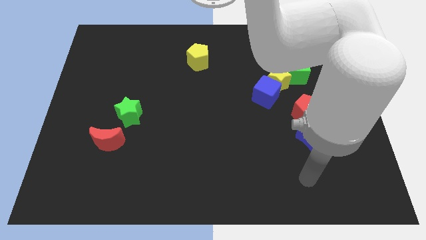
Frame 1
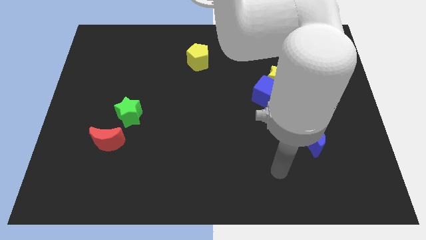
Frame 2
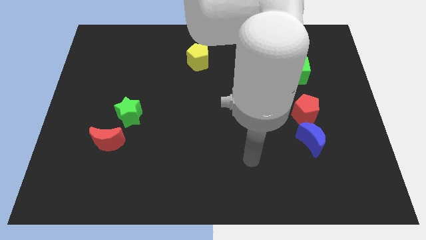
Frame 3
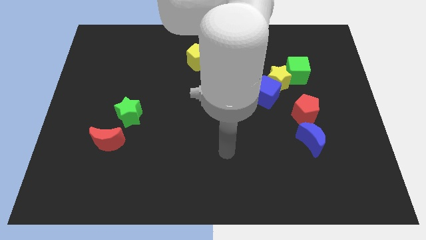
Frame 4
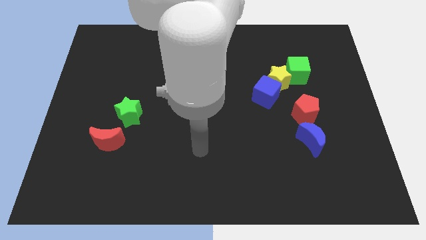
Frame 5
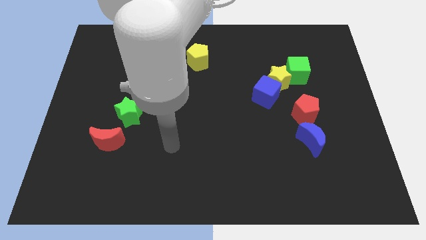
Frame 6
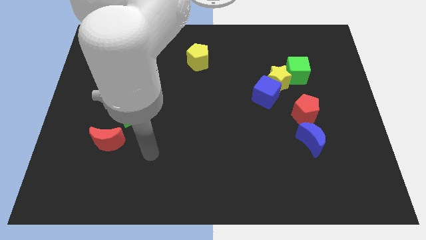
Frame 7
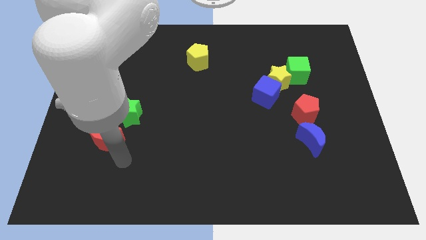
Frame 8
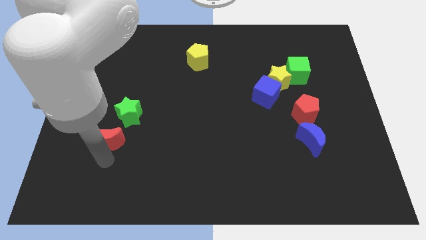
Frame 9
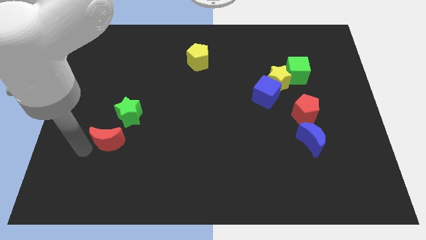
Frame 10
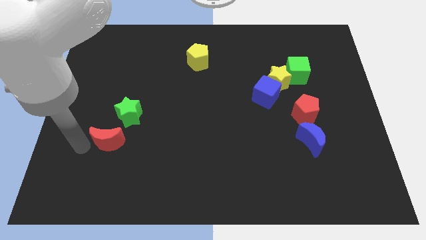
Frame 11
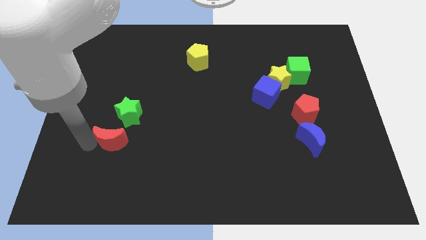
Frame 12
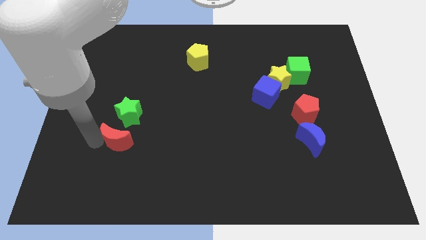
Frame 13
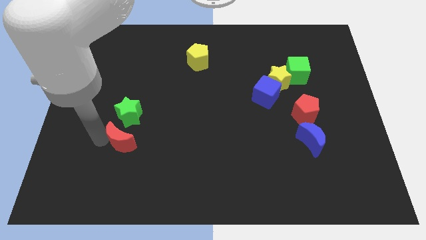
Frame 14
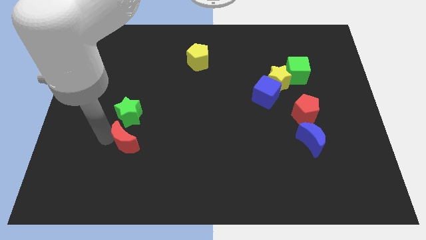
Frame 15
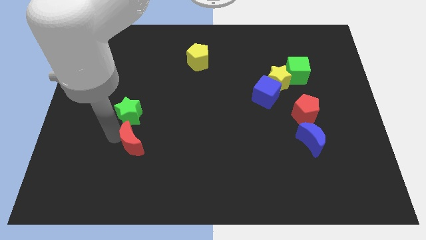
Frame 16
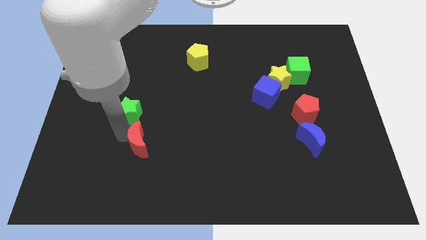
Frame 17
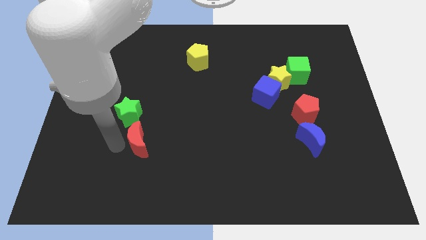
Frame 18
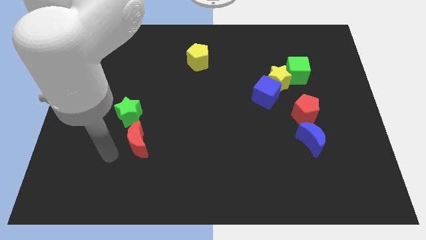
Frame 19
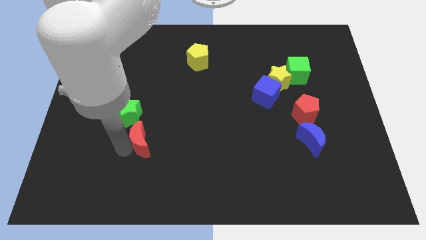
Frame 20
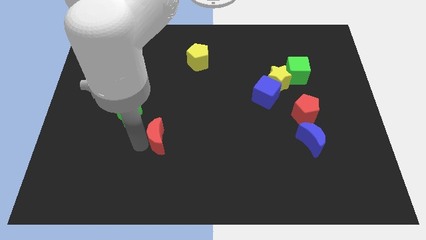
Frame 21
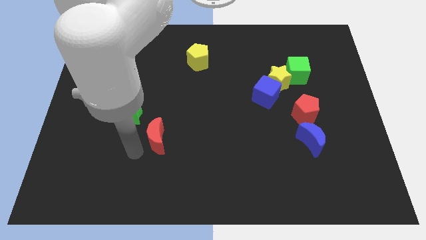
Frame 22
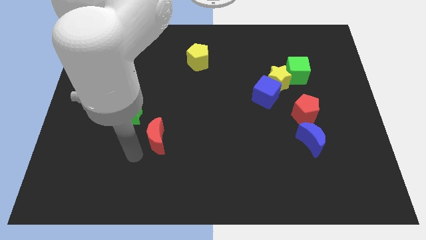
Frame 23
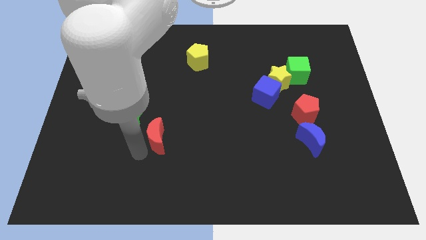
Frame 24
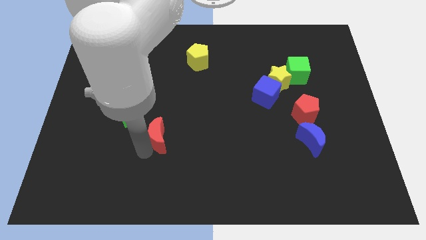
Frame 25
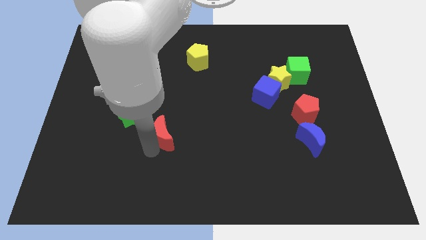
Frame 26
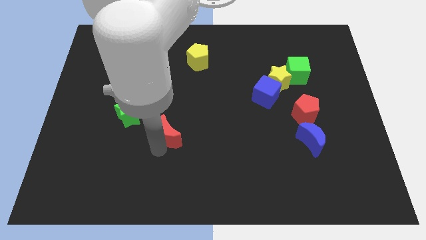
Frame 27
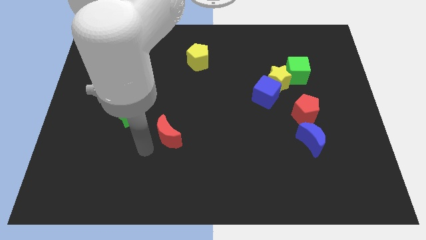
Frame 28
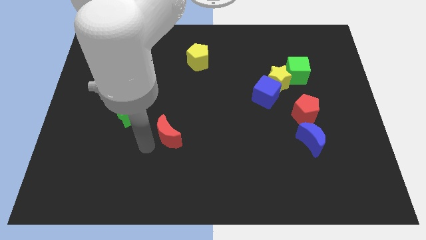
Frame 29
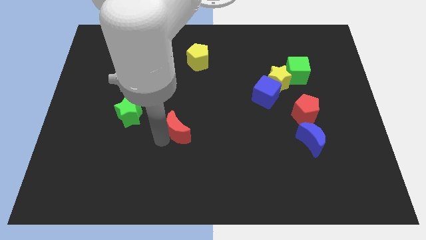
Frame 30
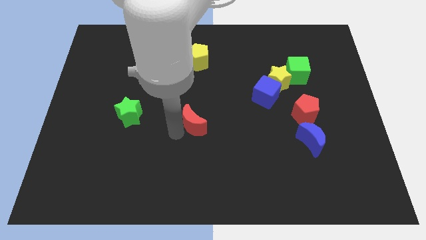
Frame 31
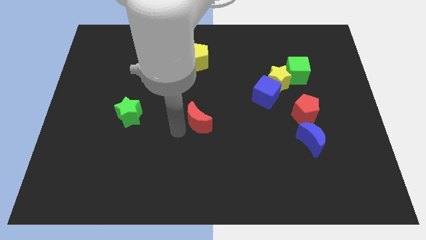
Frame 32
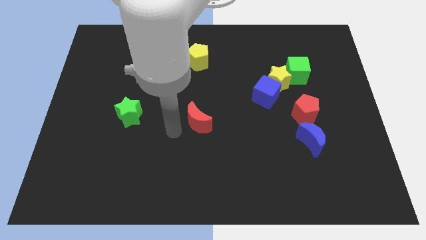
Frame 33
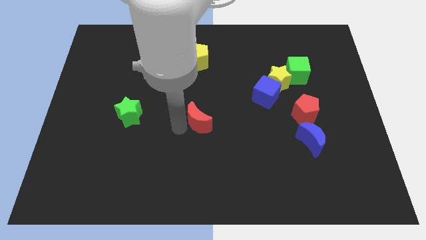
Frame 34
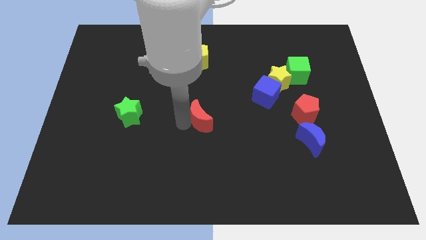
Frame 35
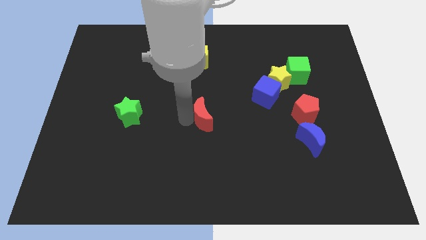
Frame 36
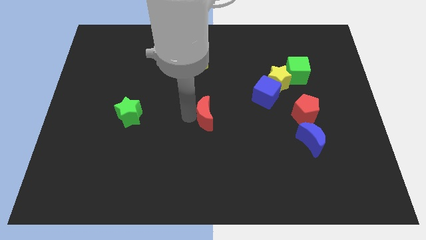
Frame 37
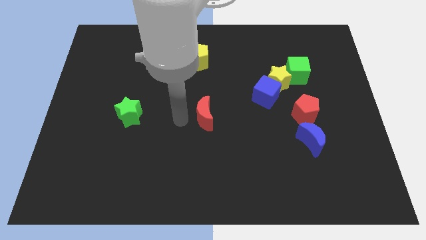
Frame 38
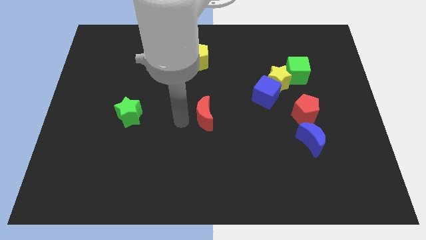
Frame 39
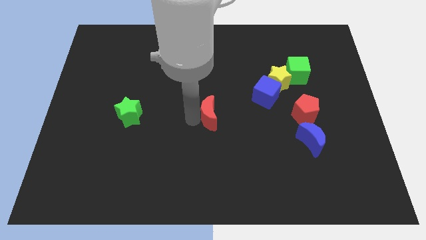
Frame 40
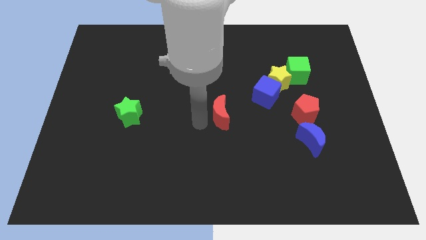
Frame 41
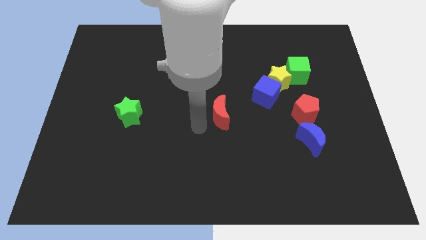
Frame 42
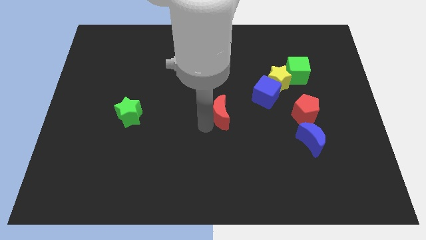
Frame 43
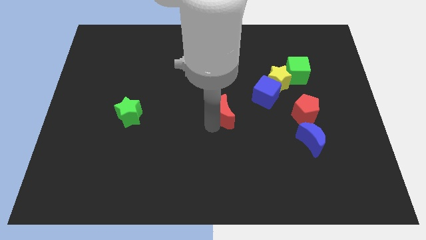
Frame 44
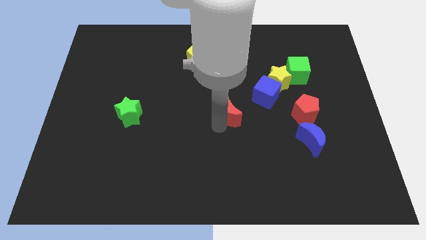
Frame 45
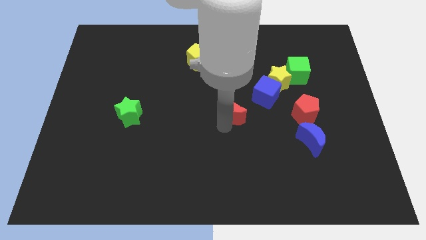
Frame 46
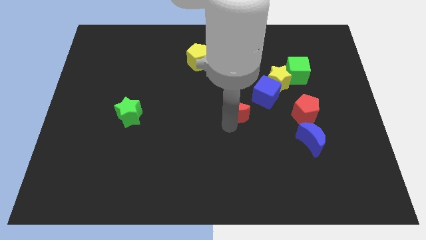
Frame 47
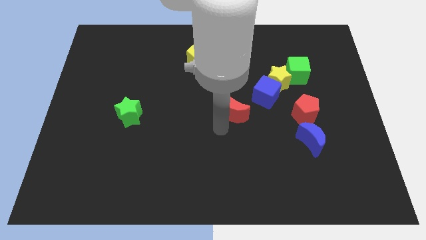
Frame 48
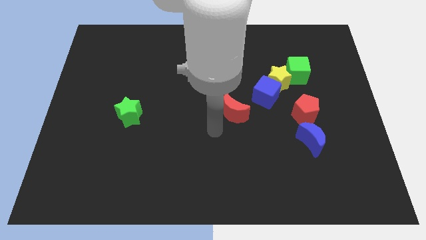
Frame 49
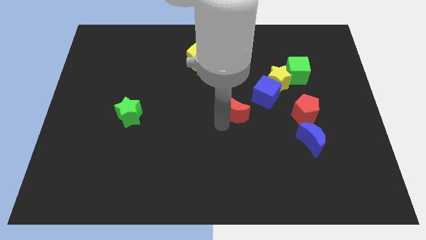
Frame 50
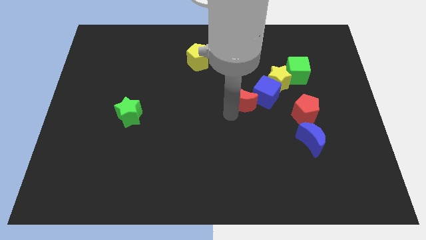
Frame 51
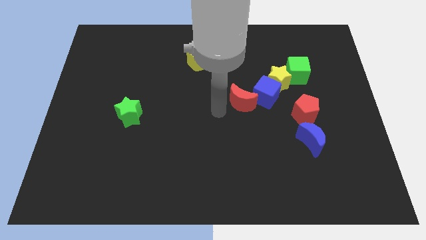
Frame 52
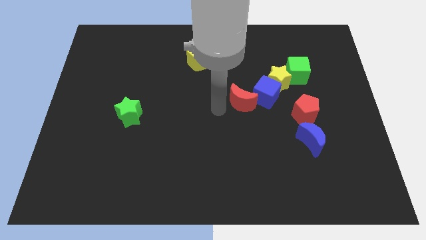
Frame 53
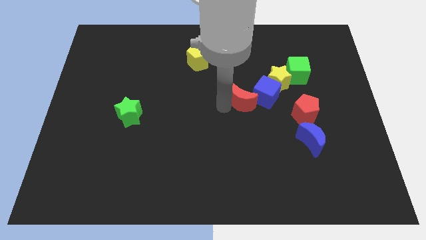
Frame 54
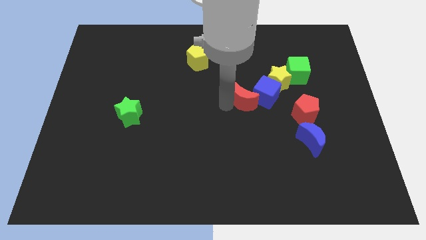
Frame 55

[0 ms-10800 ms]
put the red moon close to the blue cube

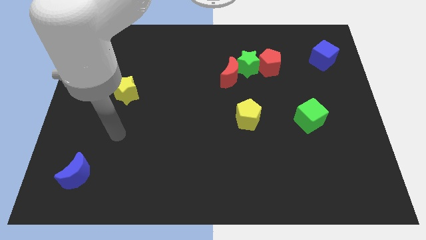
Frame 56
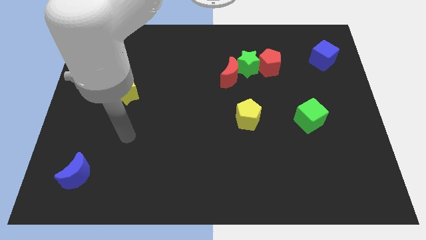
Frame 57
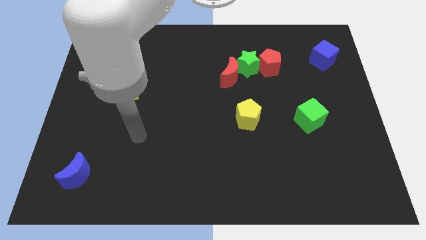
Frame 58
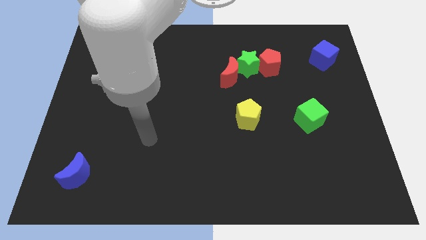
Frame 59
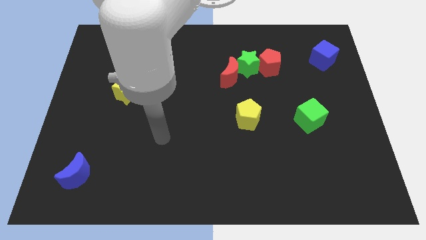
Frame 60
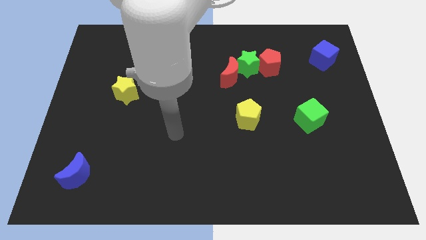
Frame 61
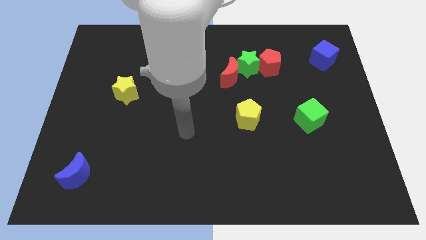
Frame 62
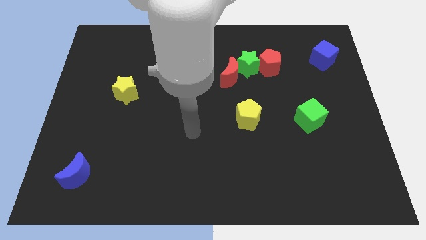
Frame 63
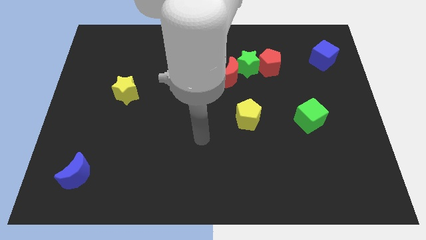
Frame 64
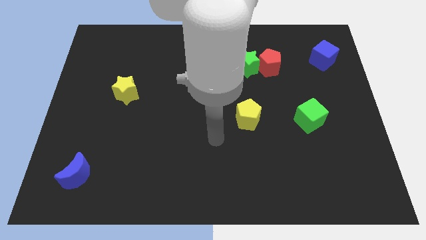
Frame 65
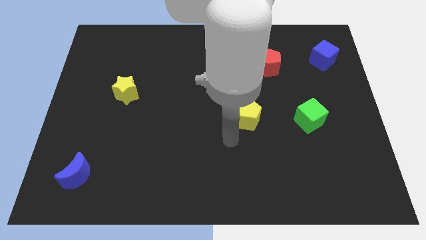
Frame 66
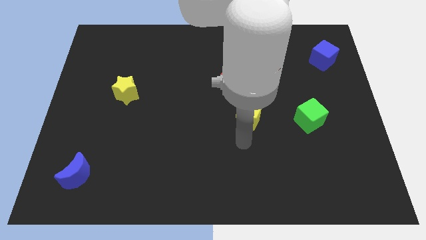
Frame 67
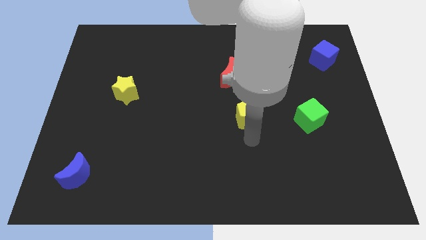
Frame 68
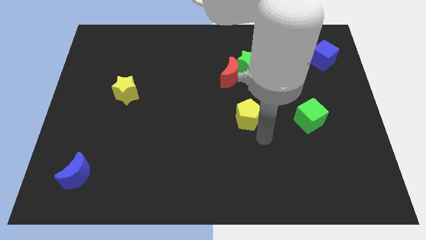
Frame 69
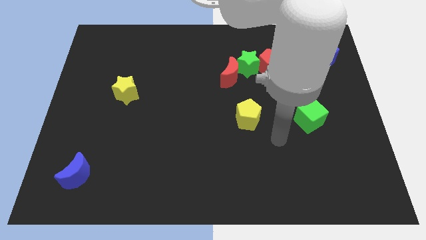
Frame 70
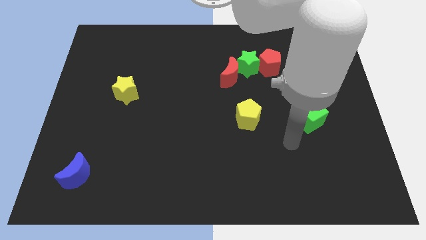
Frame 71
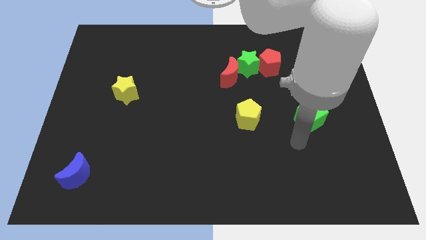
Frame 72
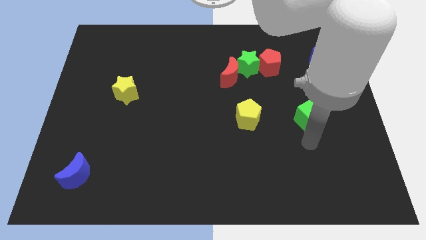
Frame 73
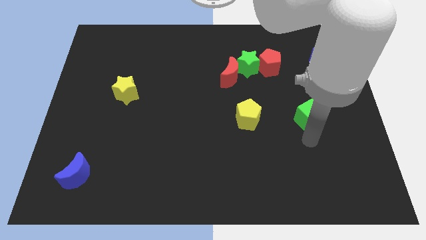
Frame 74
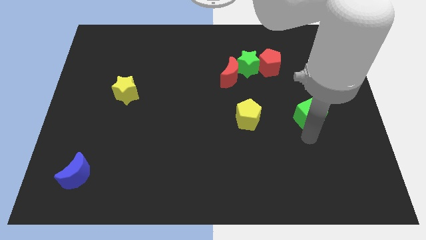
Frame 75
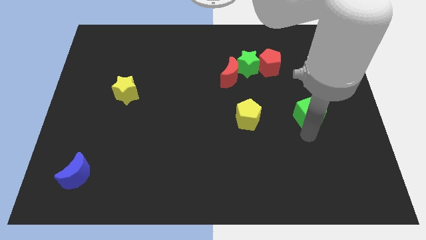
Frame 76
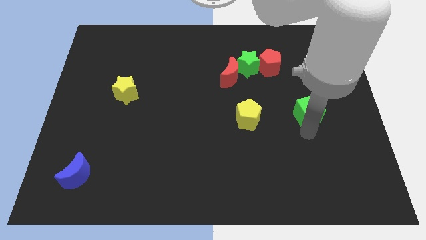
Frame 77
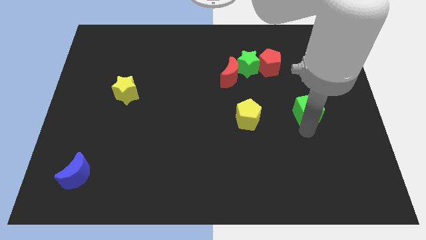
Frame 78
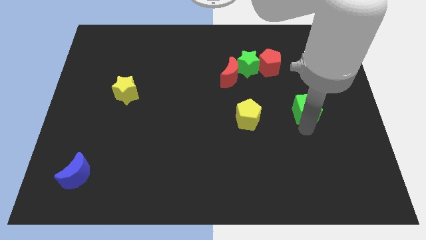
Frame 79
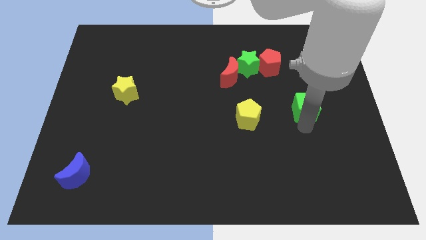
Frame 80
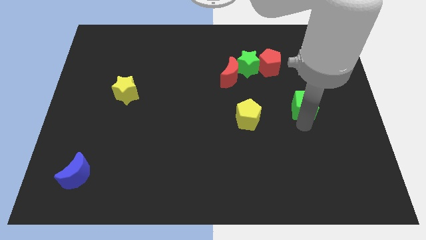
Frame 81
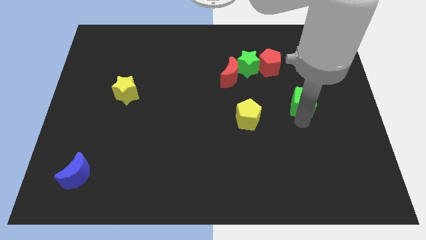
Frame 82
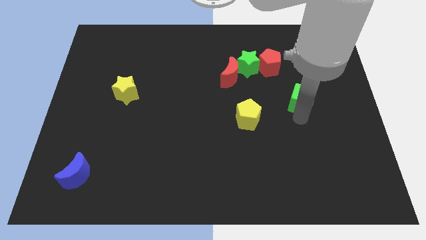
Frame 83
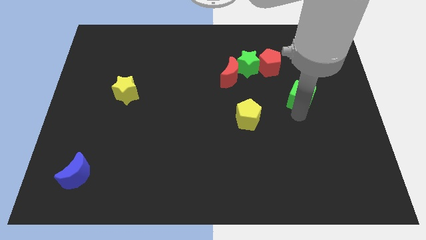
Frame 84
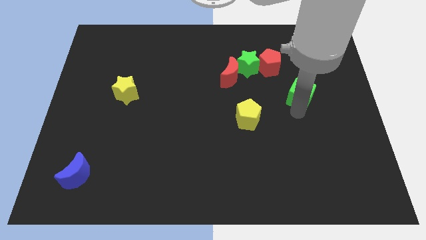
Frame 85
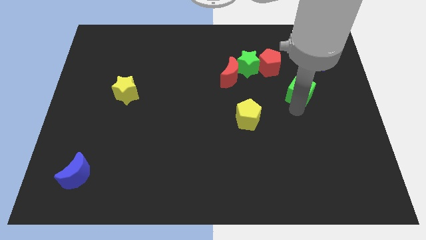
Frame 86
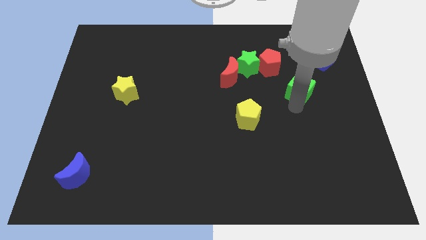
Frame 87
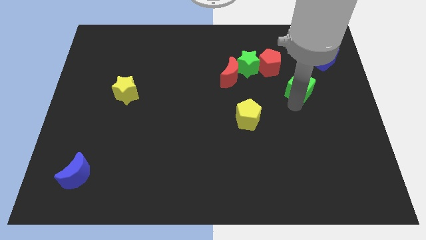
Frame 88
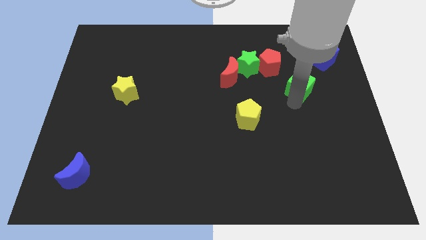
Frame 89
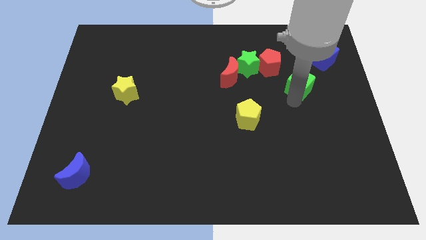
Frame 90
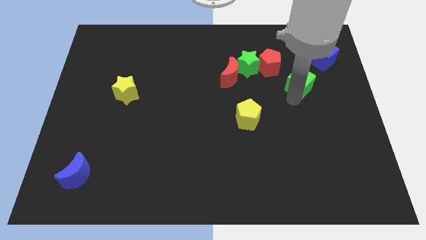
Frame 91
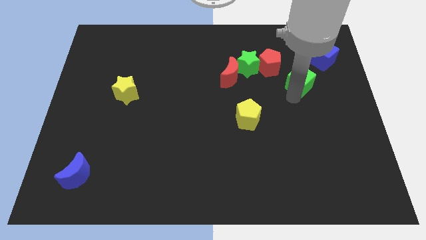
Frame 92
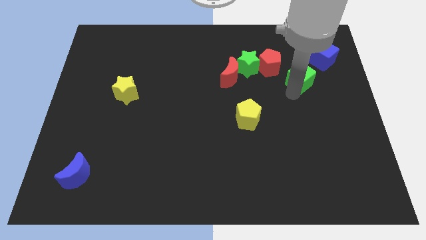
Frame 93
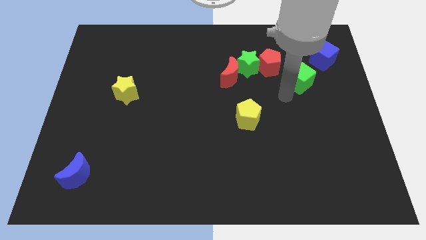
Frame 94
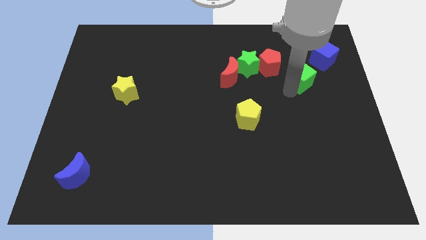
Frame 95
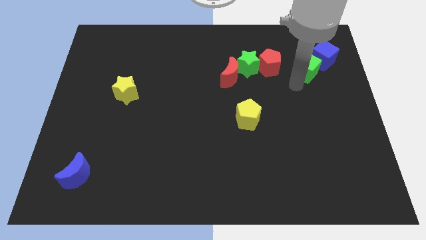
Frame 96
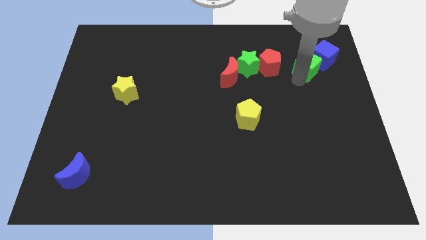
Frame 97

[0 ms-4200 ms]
push the green cube next to the blue cube
